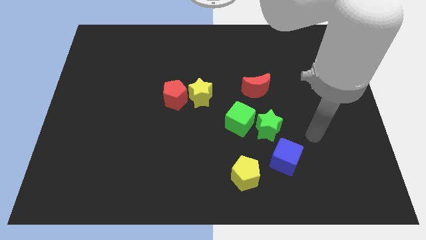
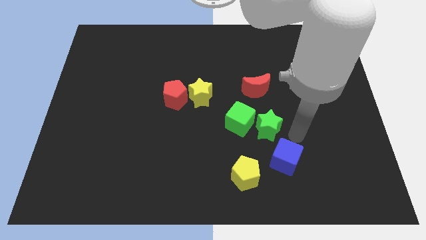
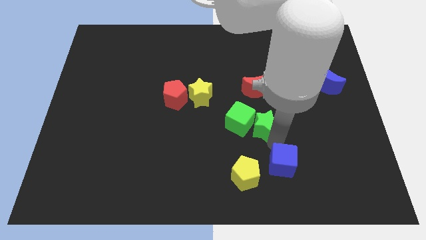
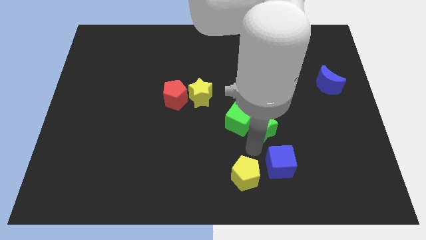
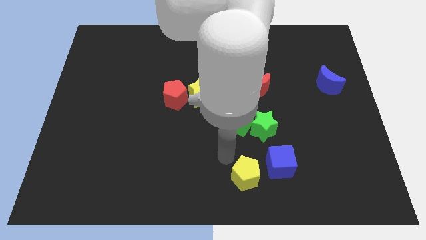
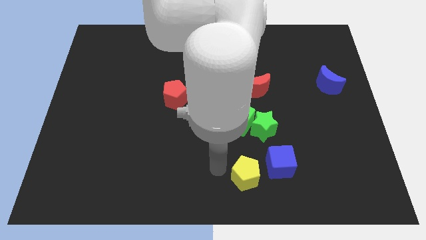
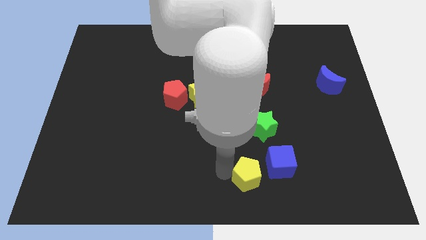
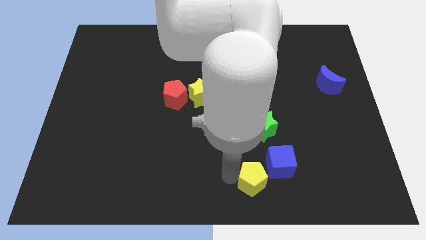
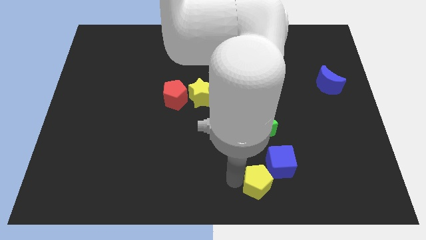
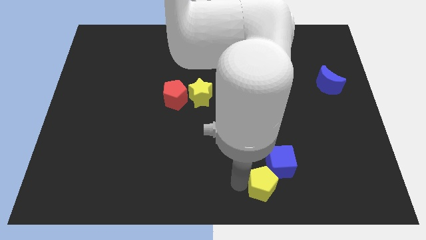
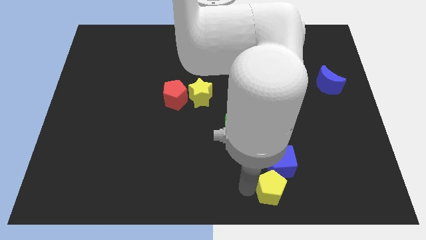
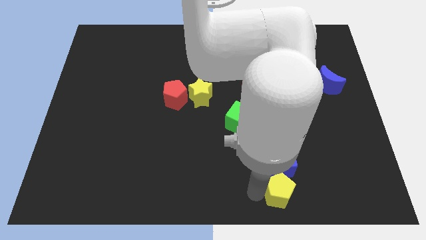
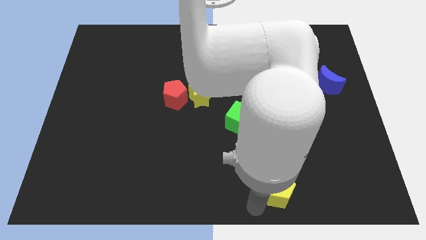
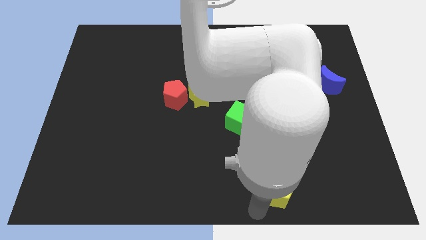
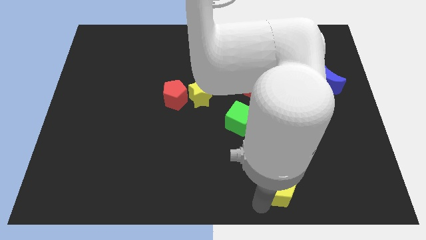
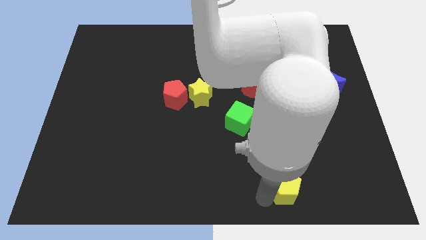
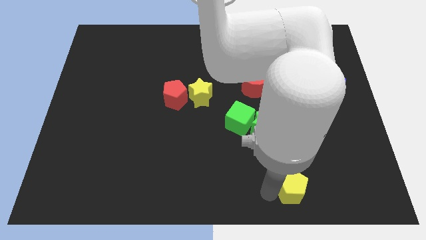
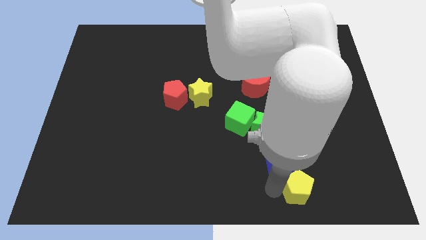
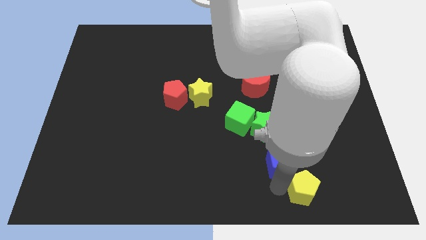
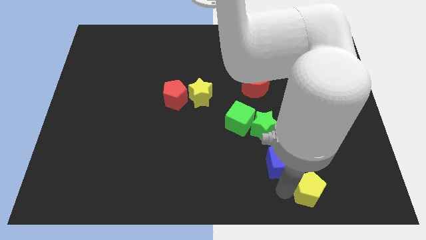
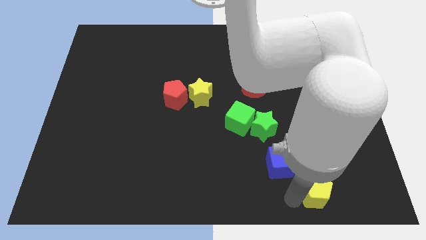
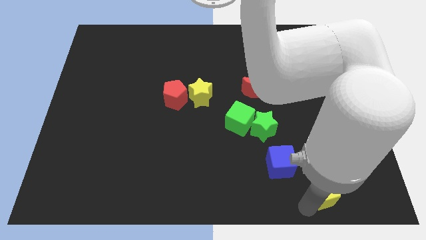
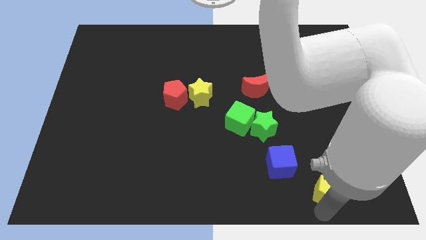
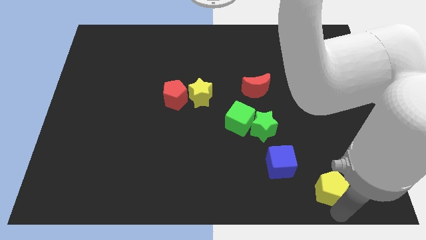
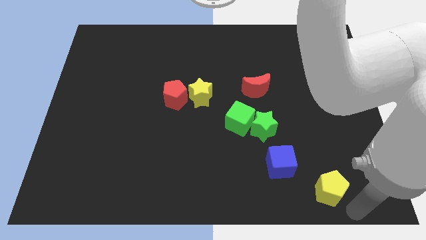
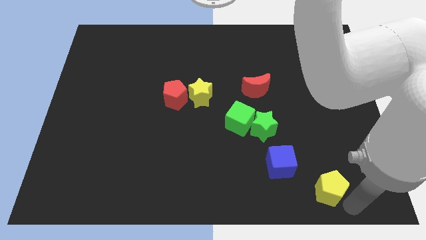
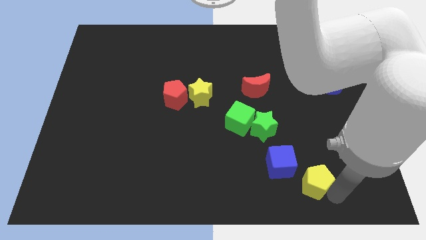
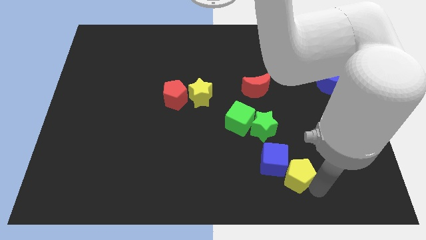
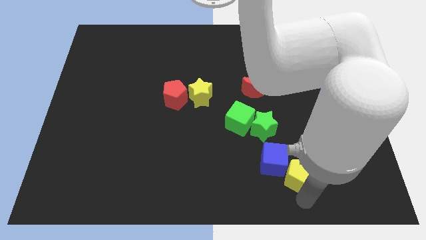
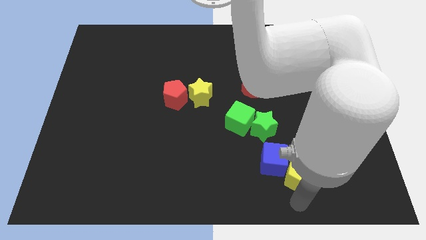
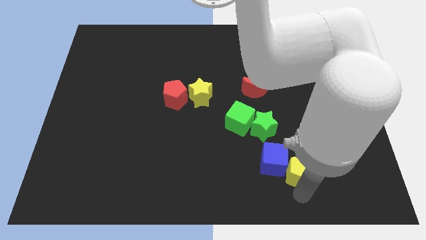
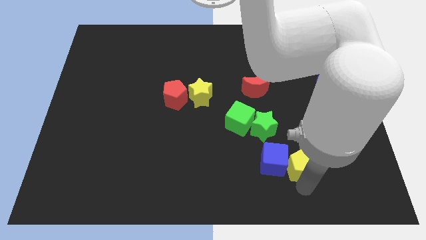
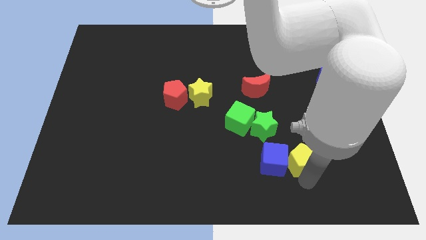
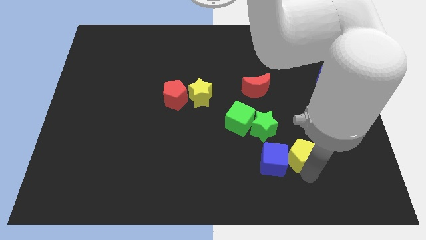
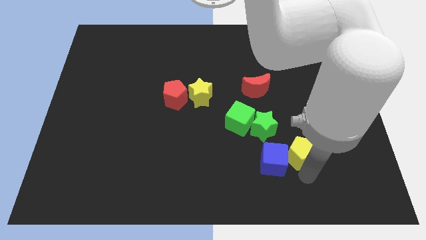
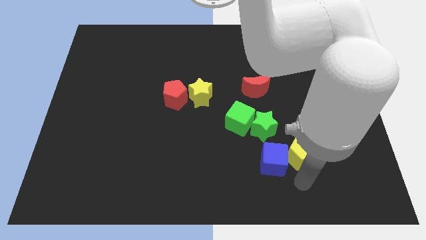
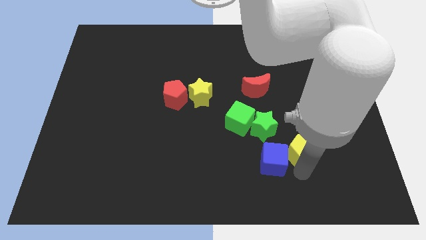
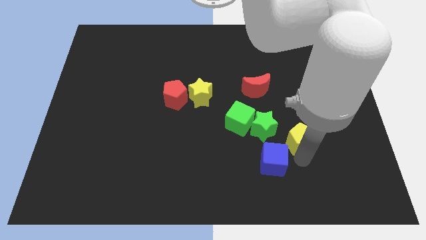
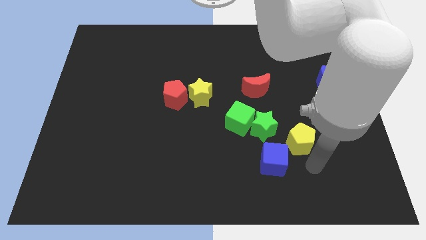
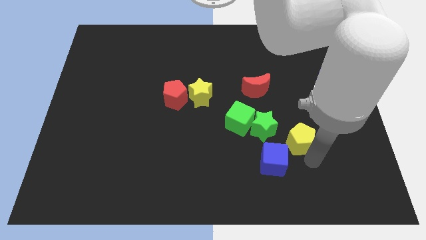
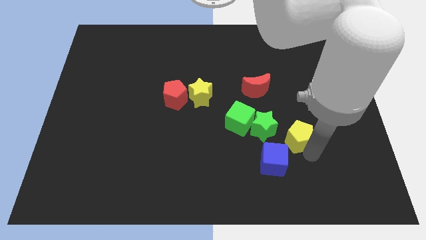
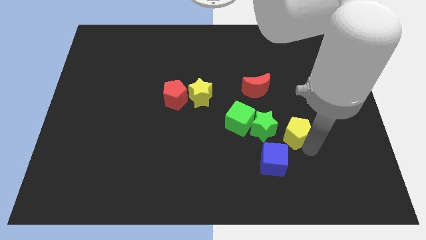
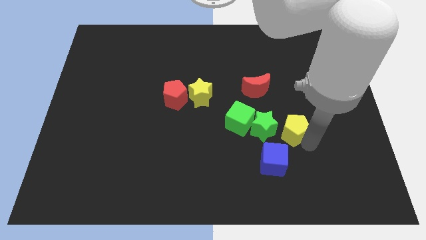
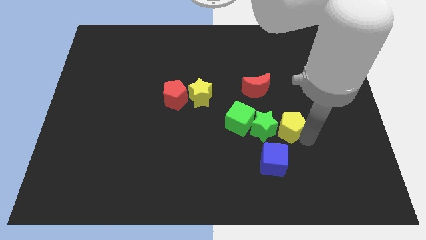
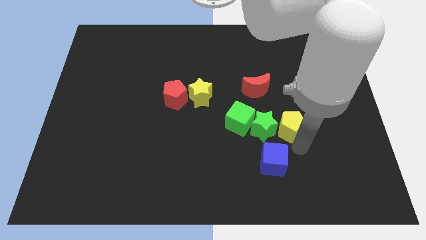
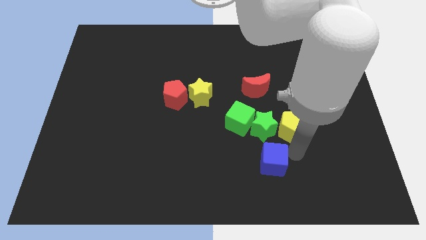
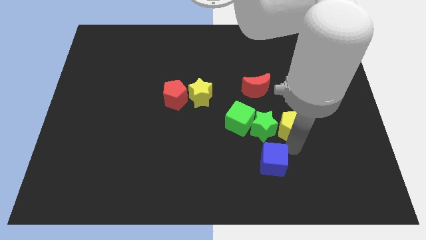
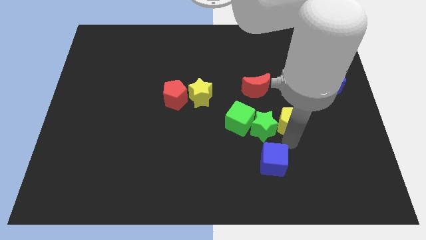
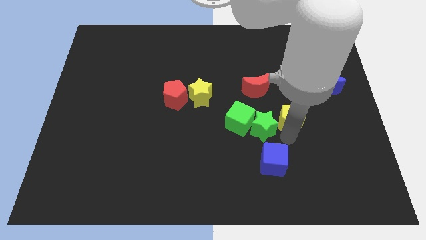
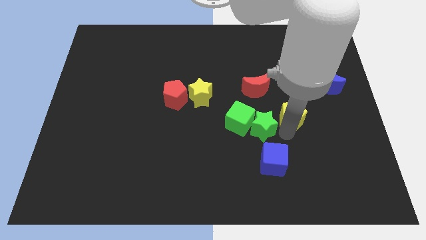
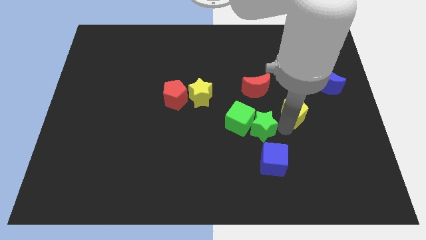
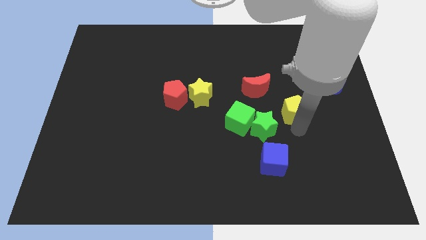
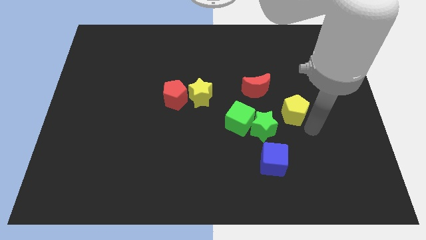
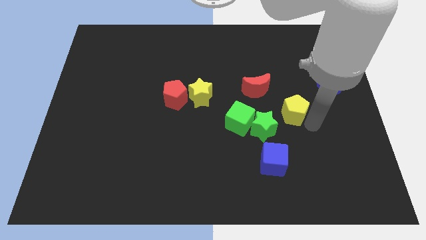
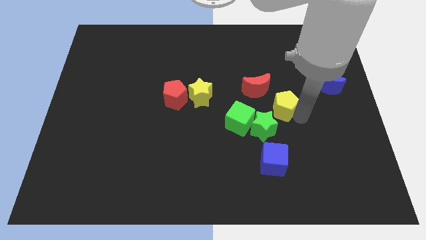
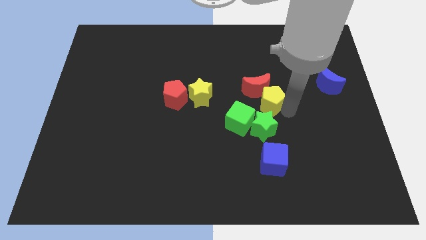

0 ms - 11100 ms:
move the yellow pentagon next to the red moon

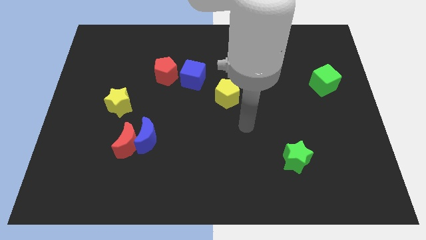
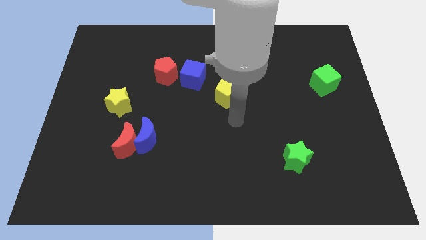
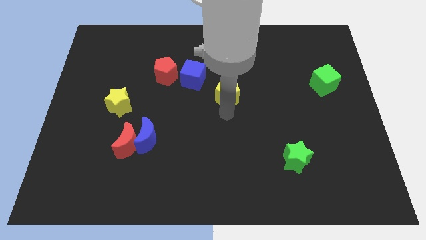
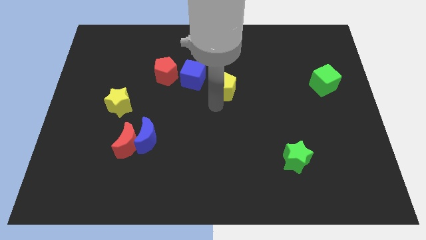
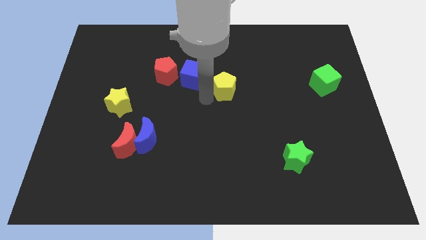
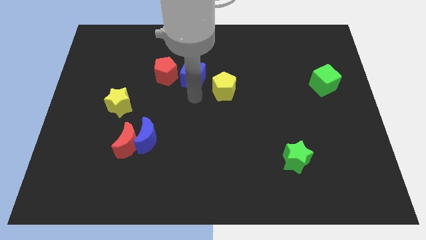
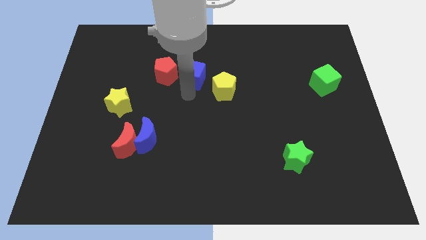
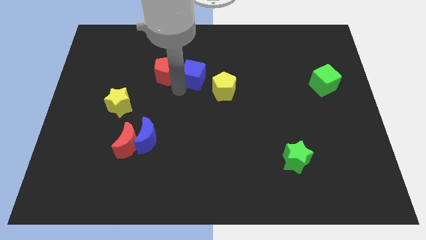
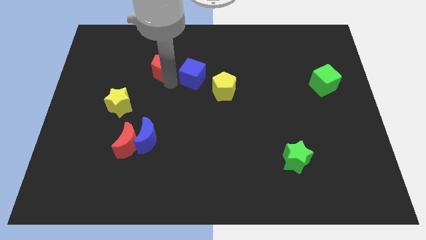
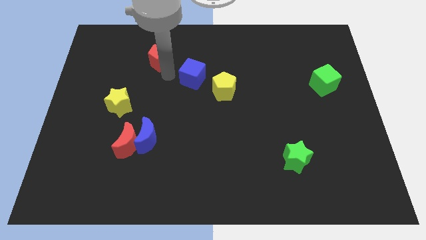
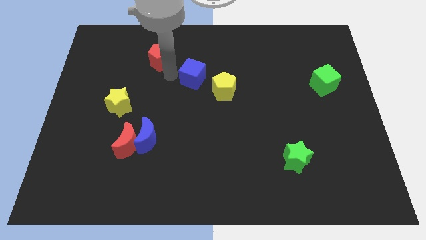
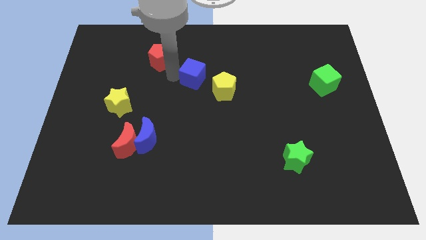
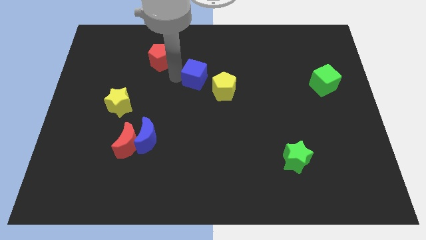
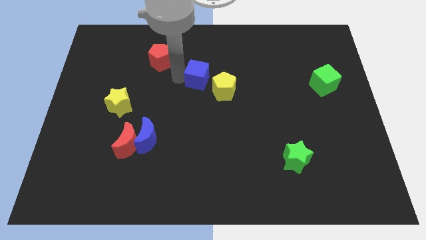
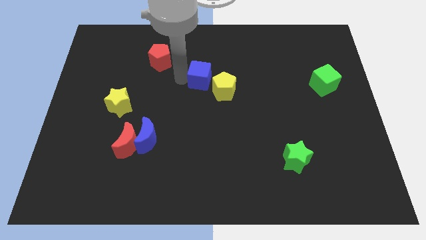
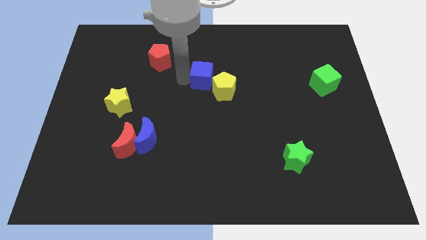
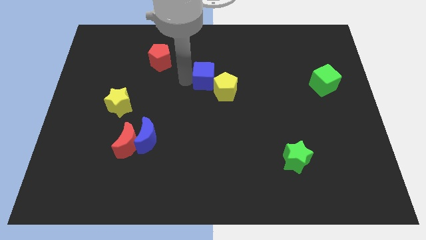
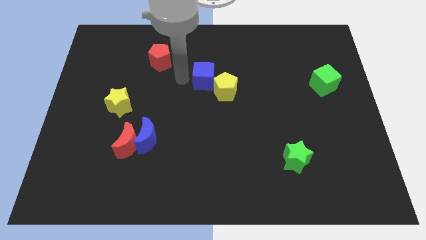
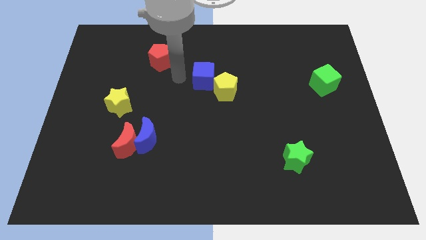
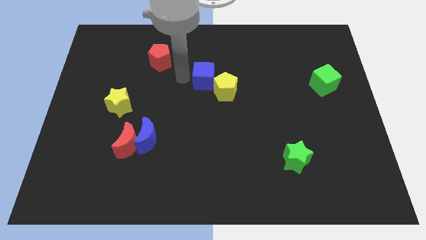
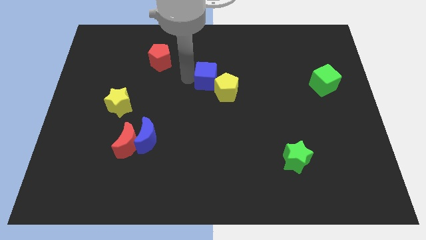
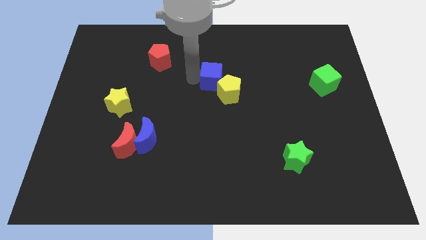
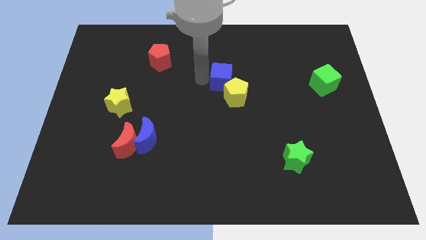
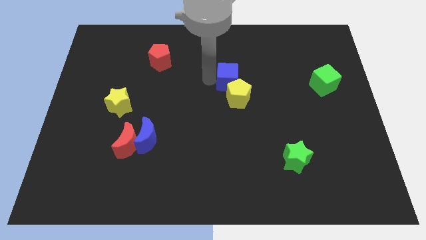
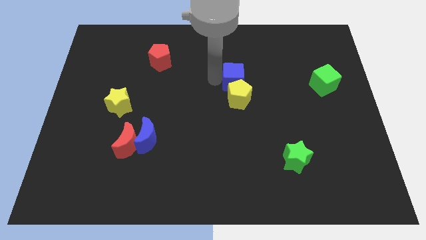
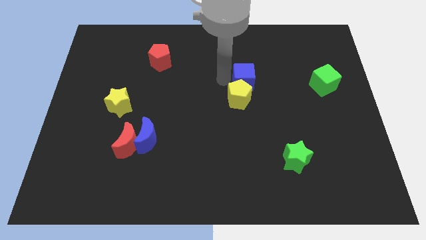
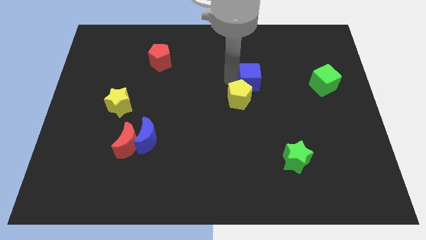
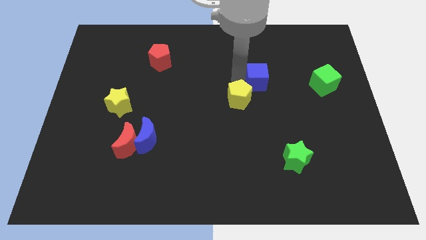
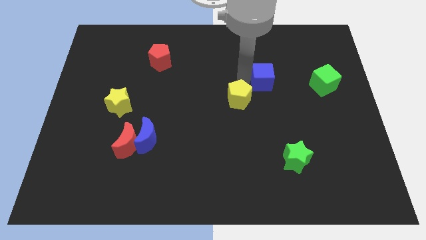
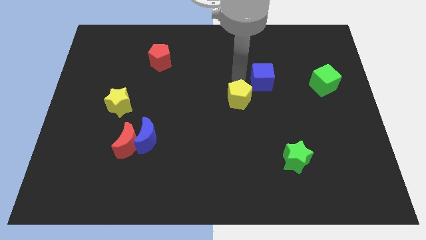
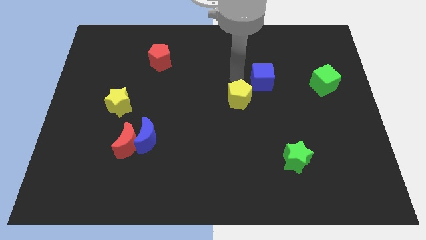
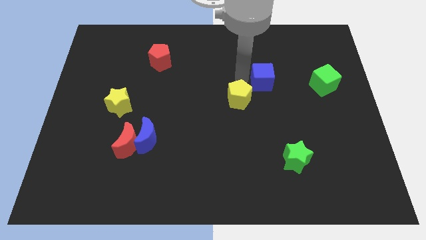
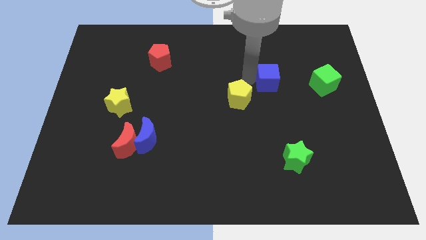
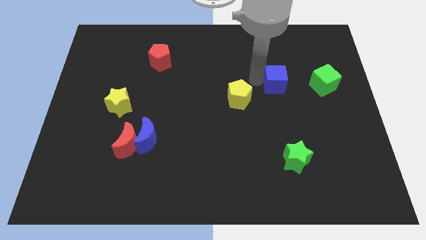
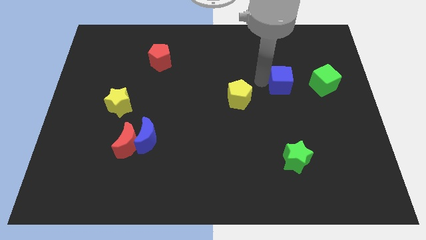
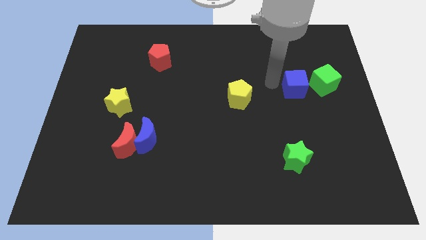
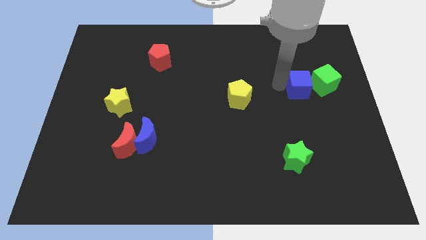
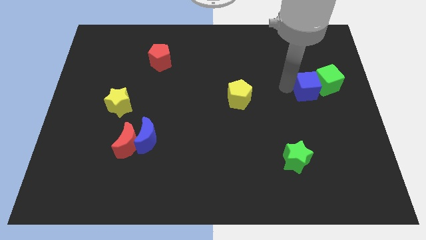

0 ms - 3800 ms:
slide the blue cube to the green cube
